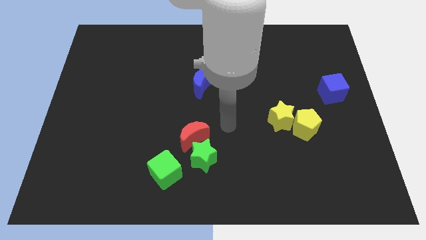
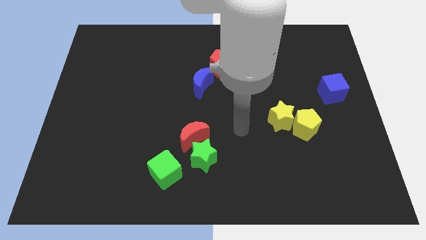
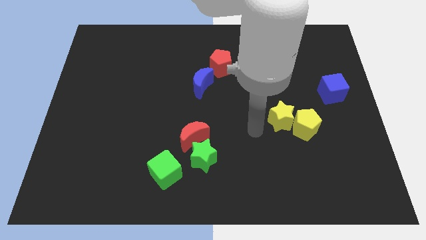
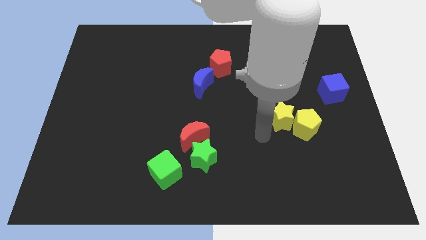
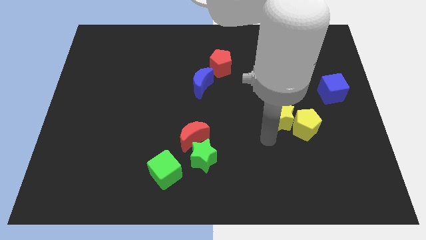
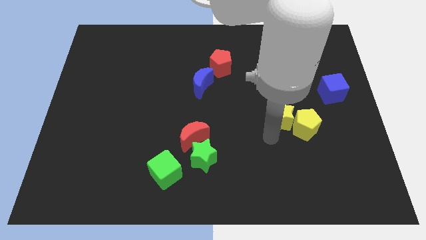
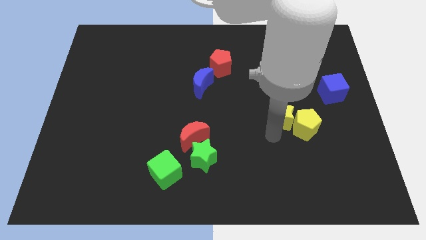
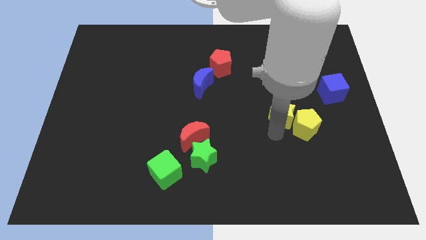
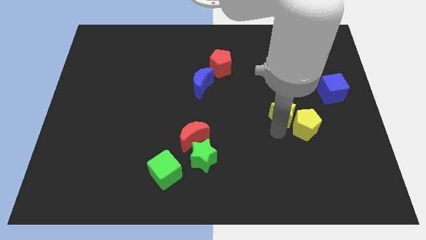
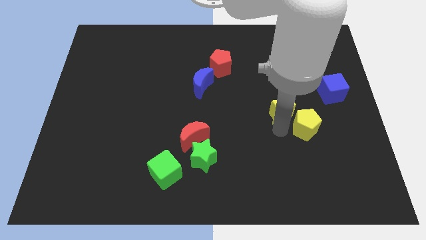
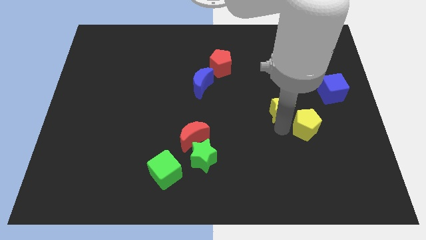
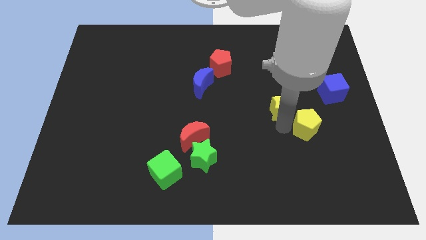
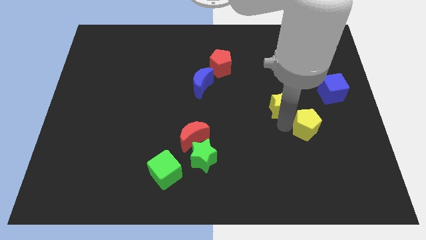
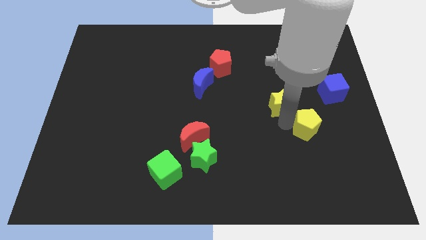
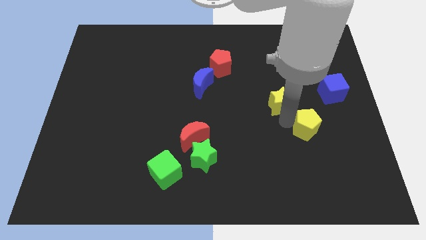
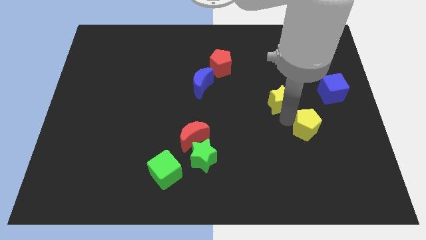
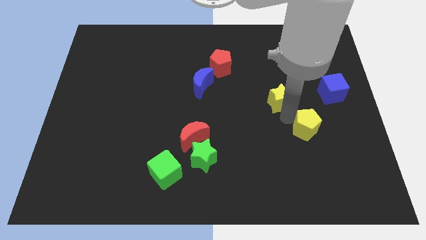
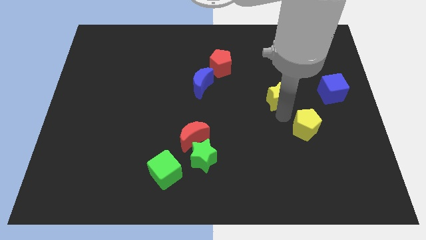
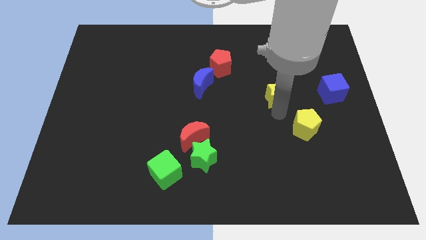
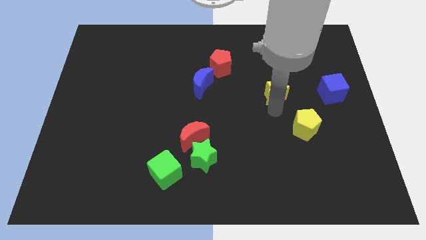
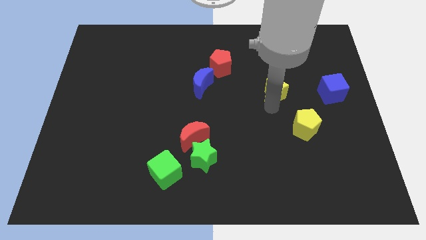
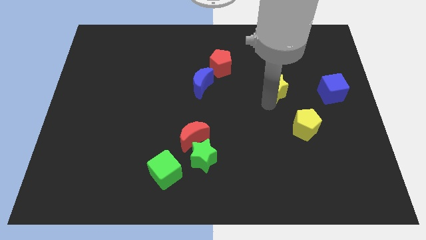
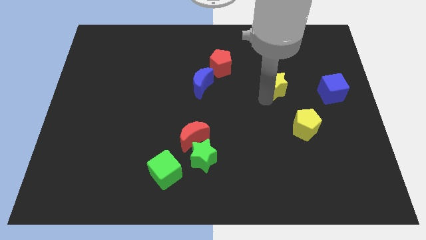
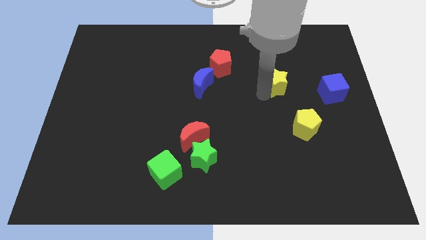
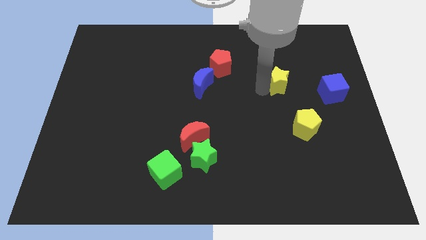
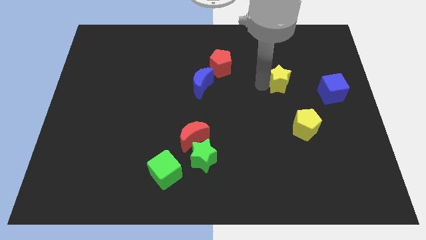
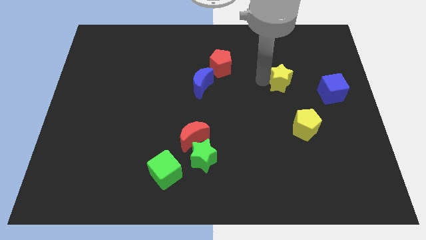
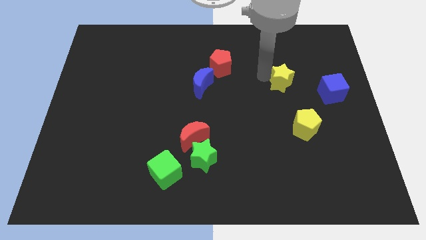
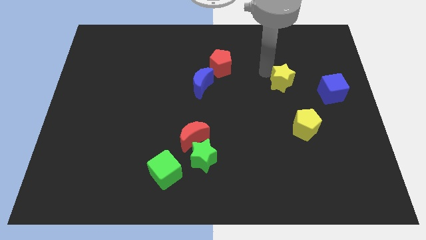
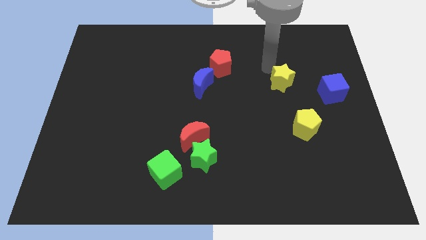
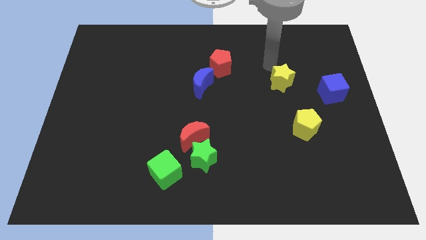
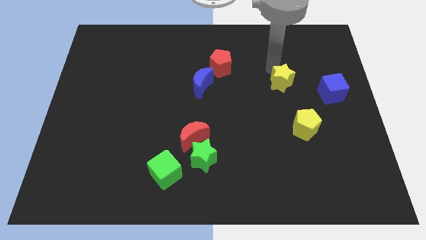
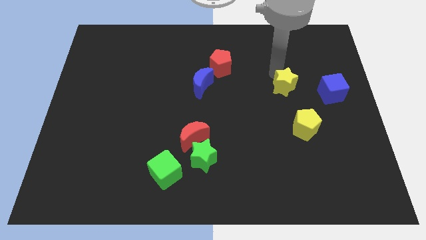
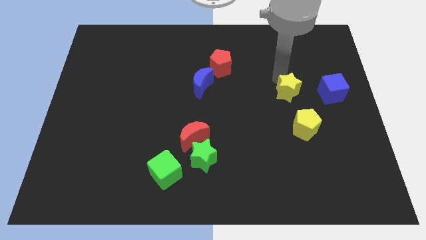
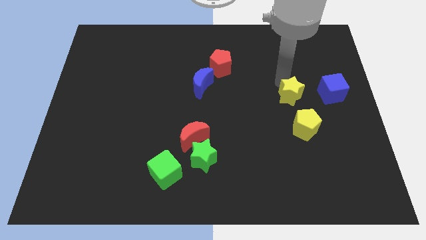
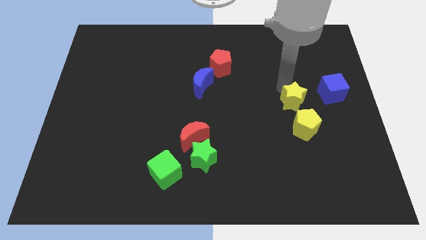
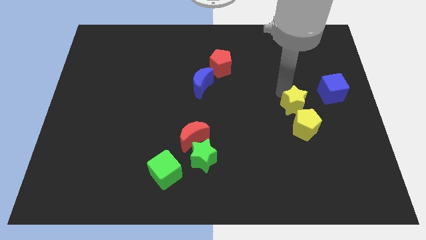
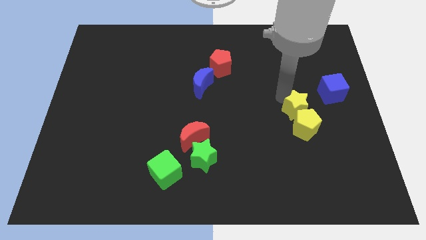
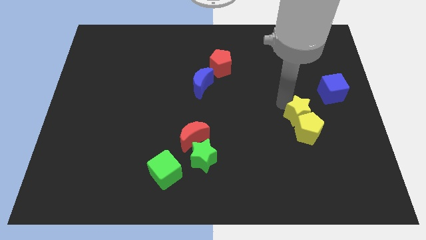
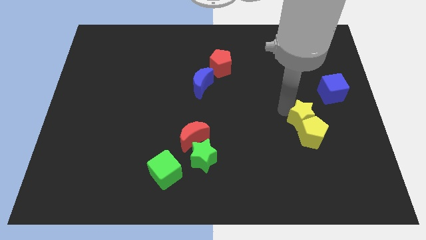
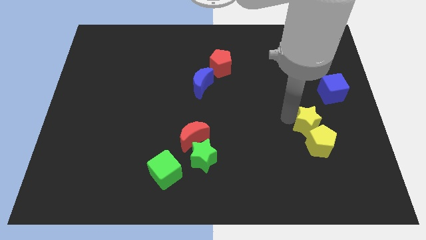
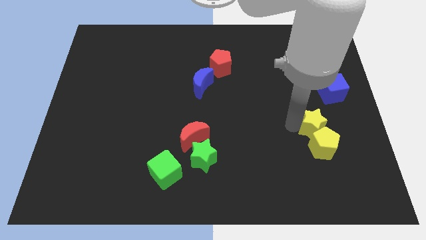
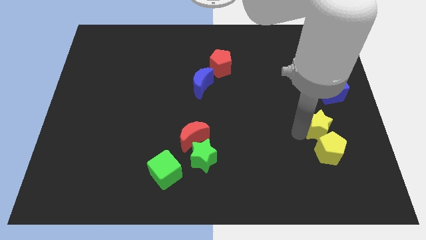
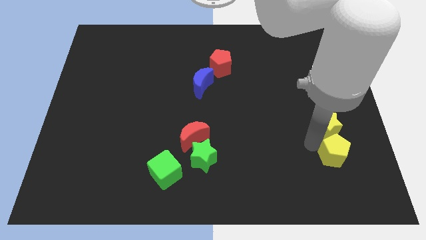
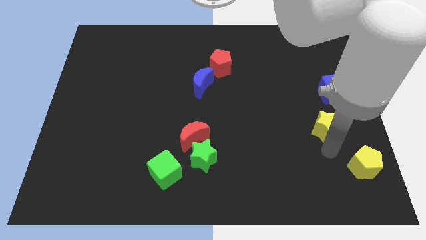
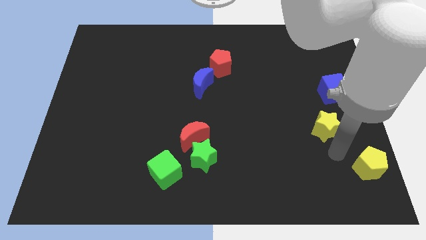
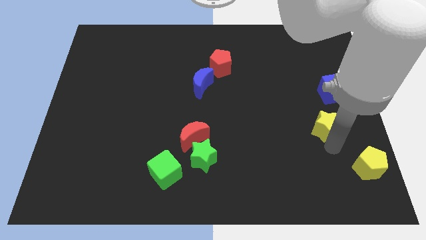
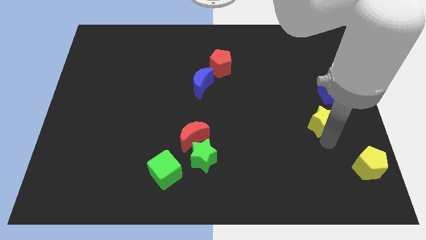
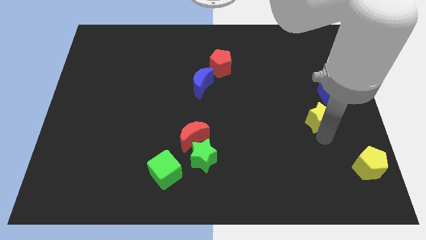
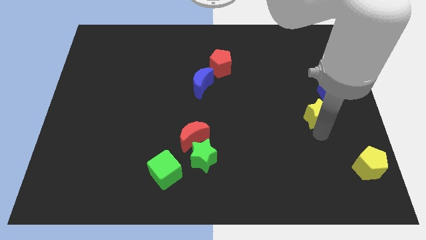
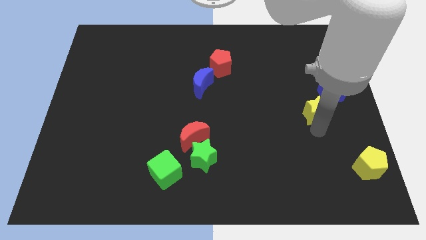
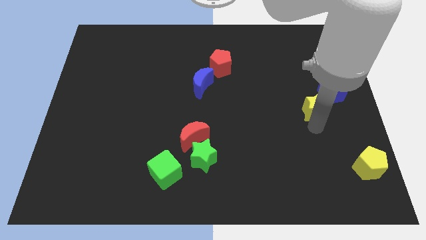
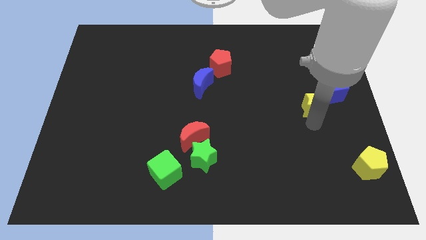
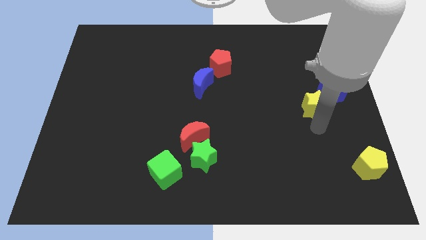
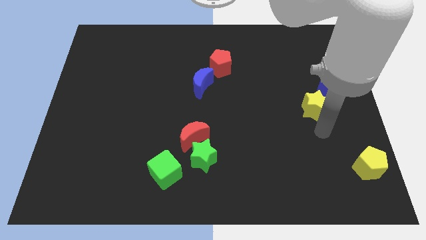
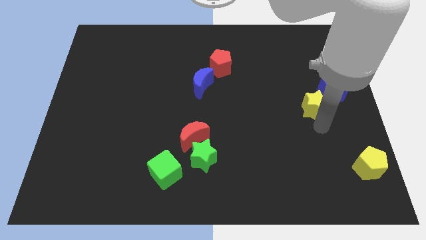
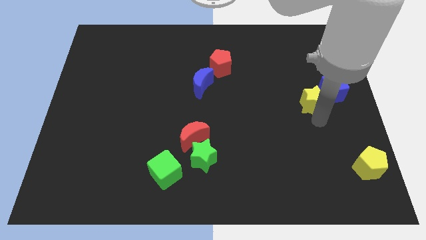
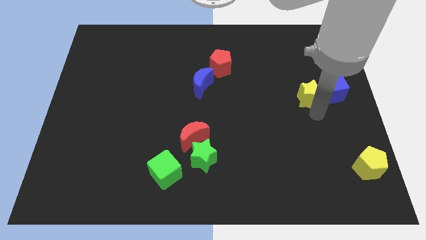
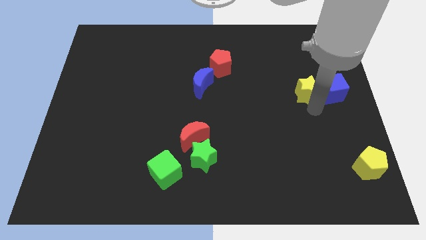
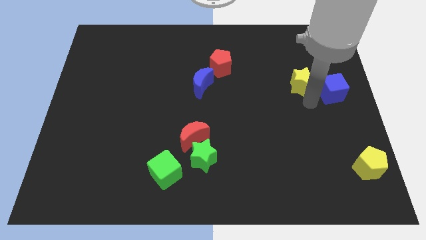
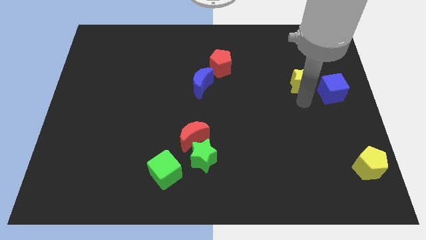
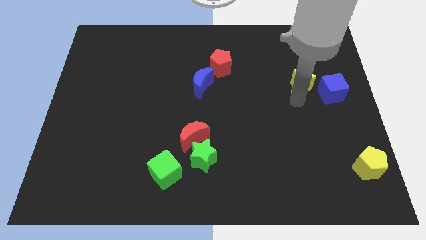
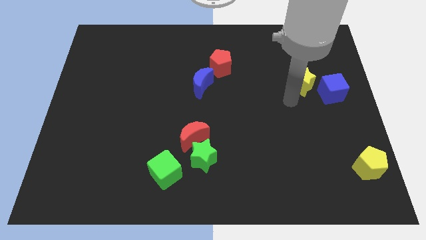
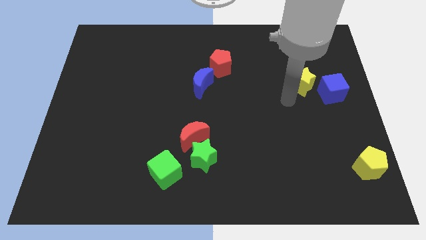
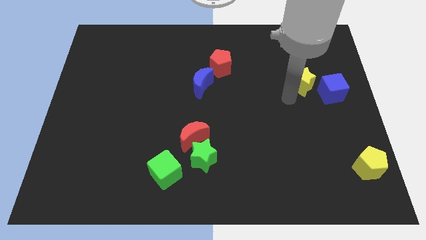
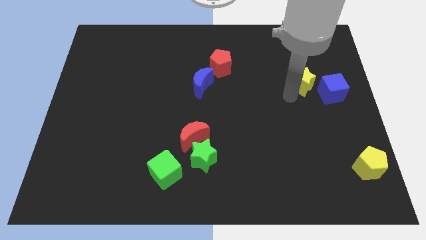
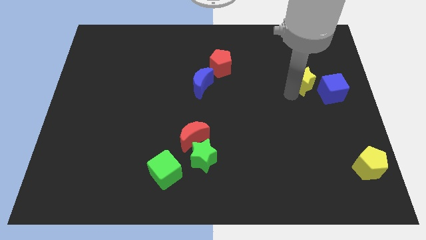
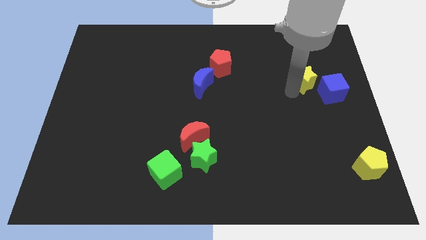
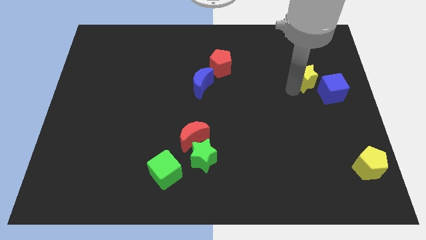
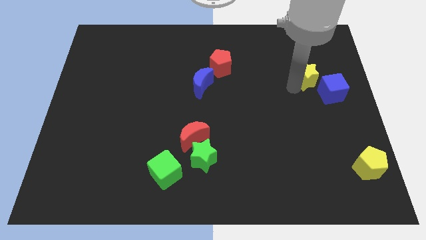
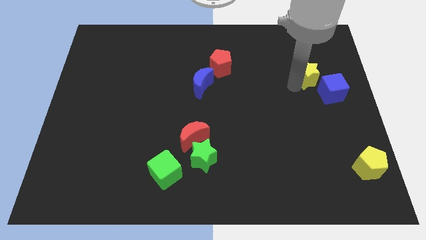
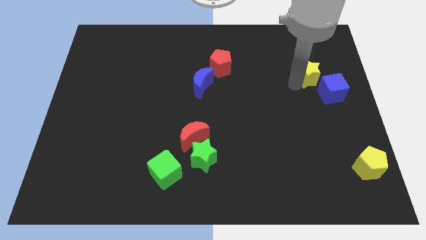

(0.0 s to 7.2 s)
put the yellow star above the blue cube
